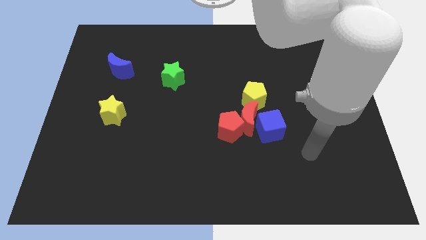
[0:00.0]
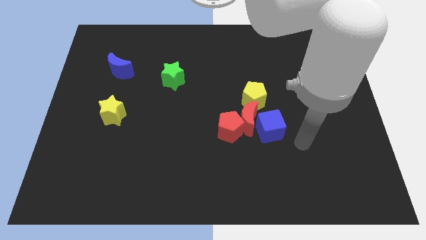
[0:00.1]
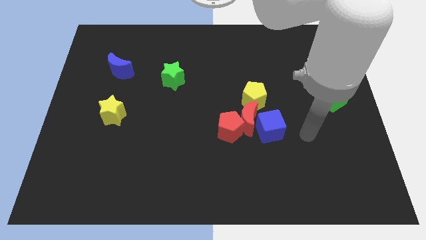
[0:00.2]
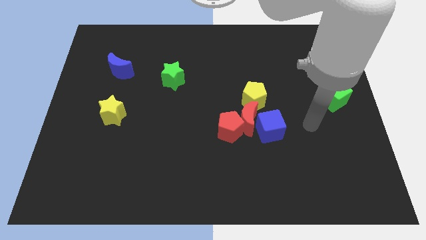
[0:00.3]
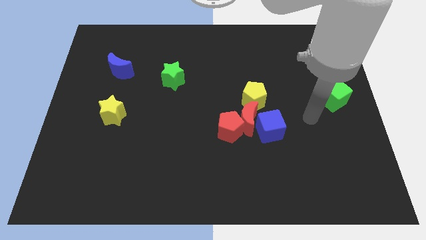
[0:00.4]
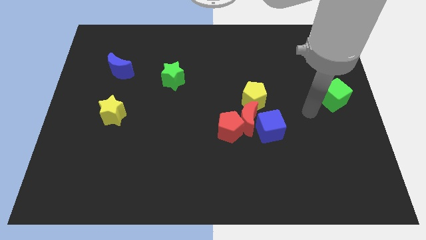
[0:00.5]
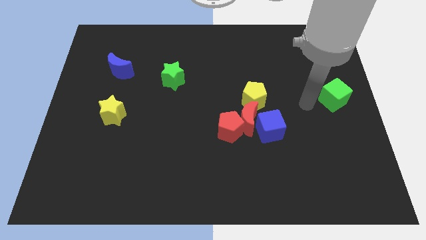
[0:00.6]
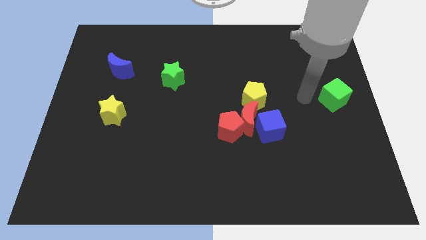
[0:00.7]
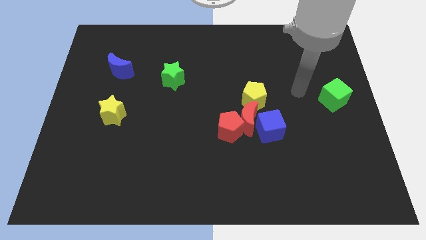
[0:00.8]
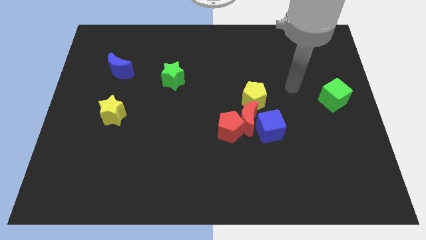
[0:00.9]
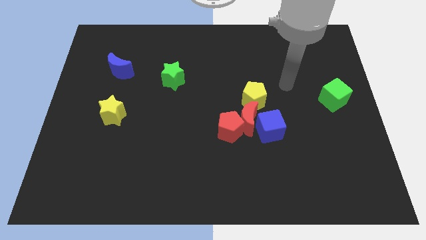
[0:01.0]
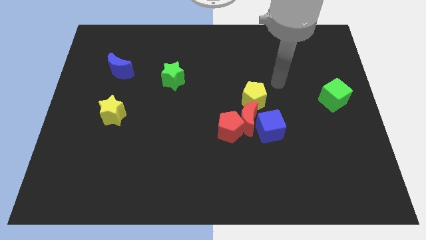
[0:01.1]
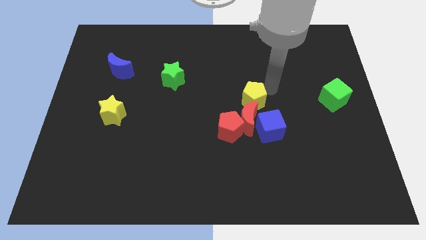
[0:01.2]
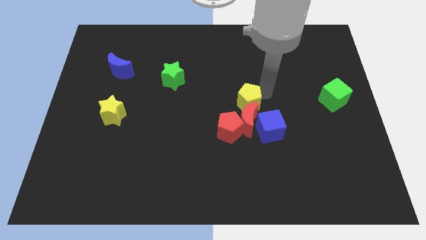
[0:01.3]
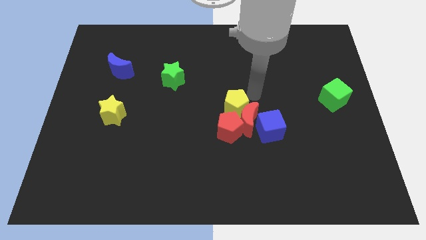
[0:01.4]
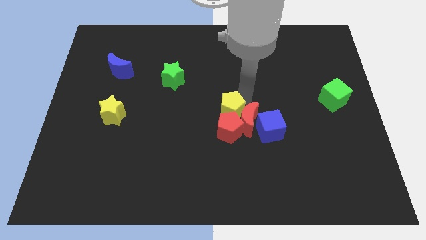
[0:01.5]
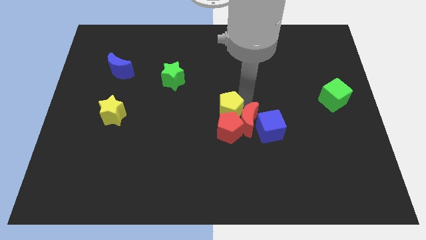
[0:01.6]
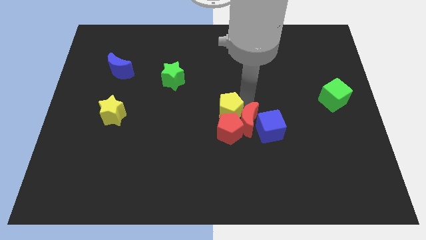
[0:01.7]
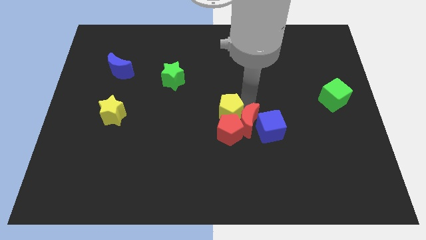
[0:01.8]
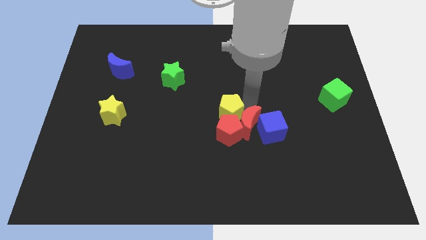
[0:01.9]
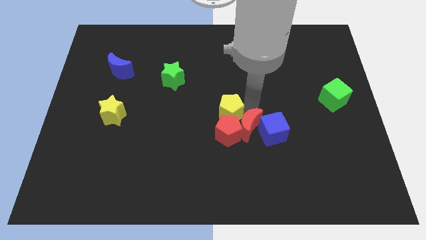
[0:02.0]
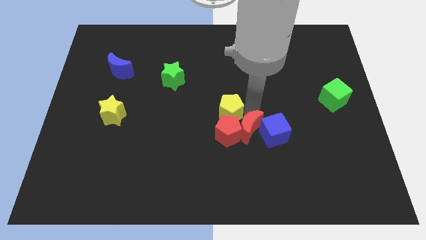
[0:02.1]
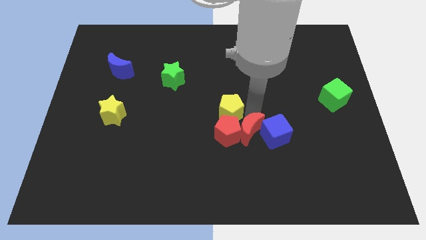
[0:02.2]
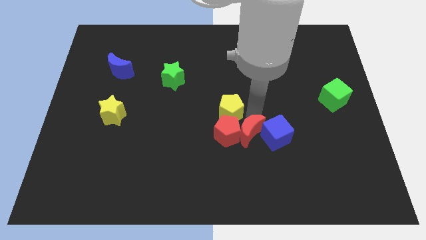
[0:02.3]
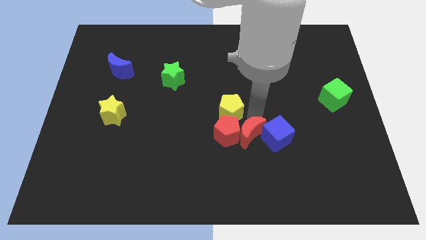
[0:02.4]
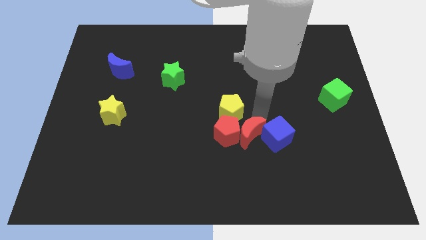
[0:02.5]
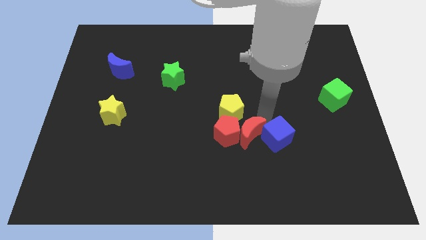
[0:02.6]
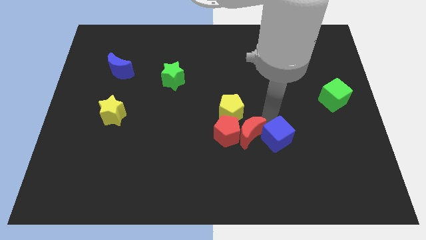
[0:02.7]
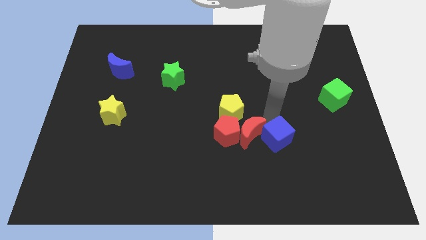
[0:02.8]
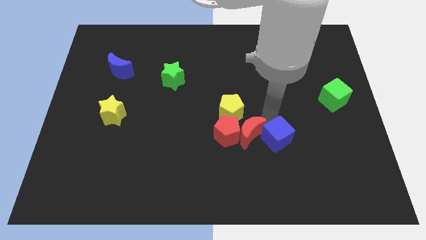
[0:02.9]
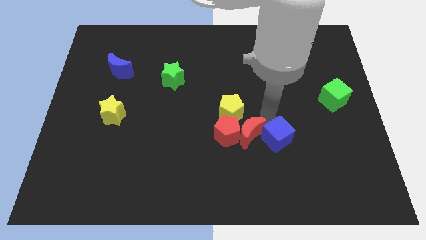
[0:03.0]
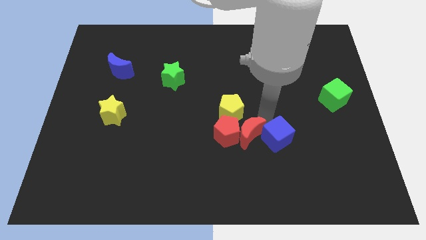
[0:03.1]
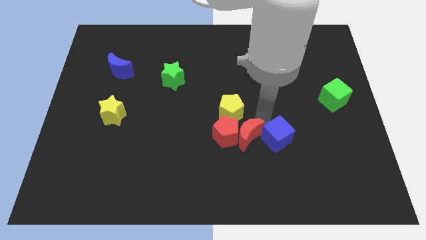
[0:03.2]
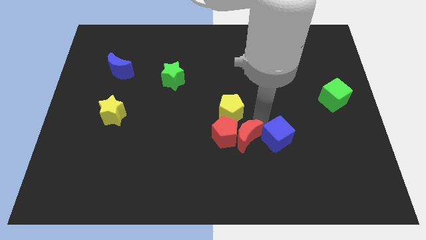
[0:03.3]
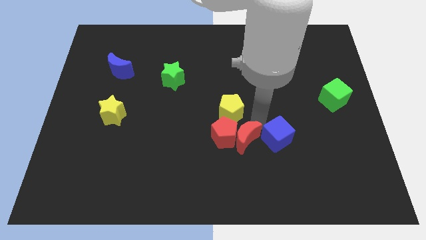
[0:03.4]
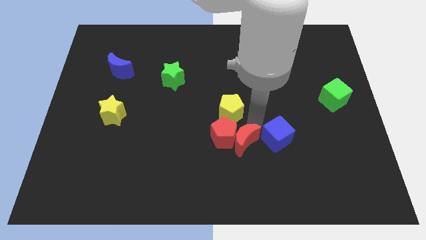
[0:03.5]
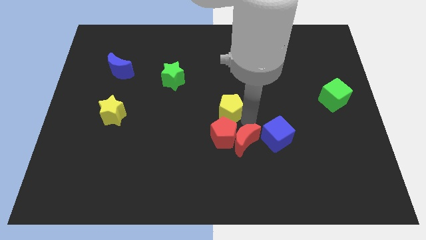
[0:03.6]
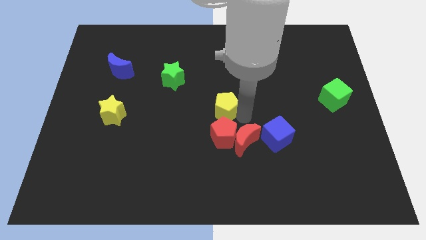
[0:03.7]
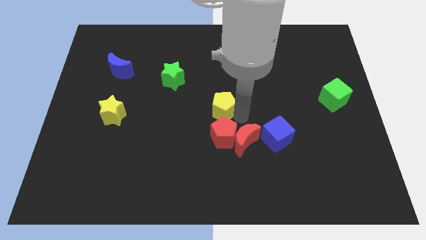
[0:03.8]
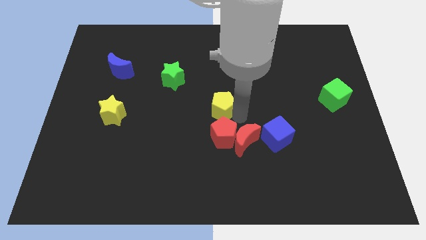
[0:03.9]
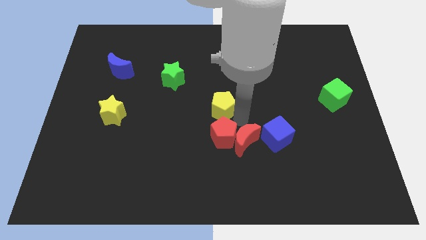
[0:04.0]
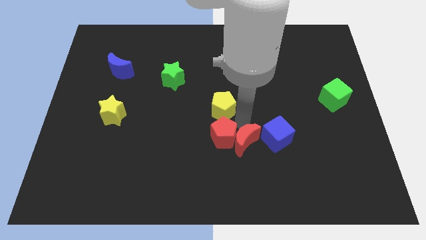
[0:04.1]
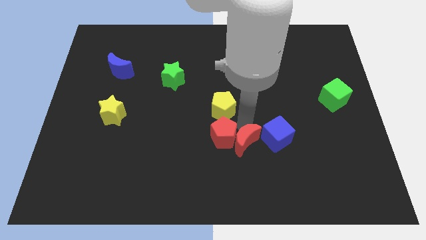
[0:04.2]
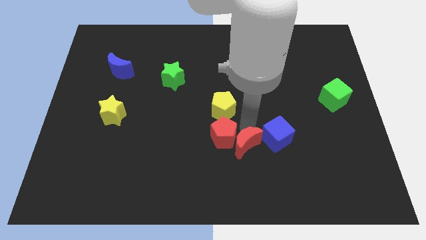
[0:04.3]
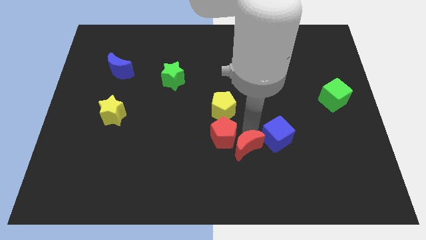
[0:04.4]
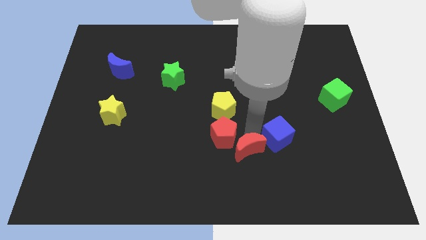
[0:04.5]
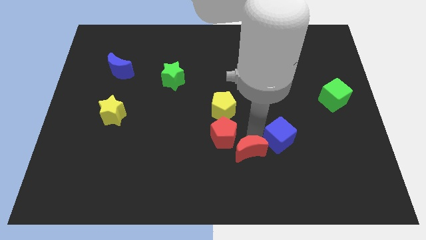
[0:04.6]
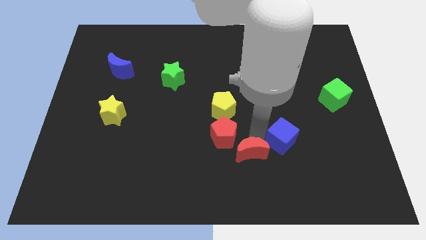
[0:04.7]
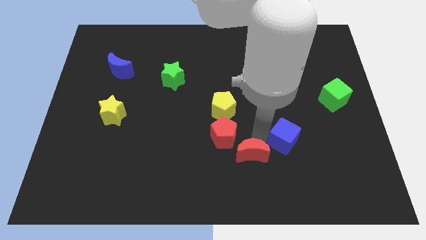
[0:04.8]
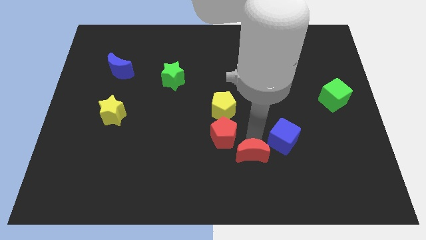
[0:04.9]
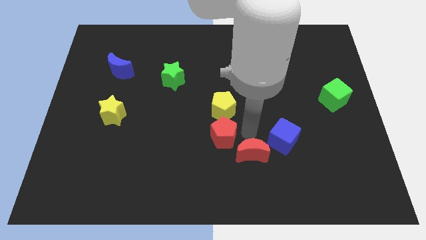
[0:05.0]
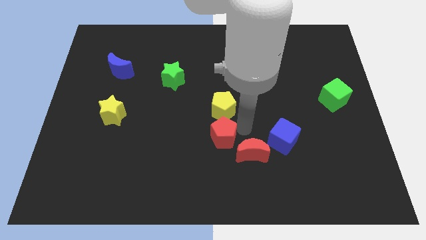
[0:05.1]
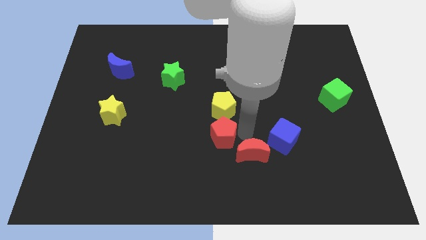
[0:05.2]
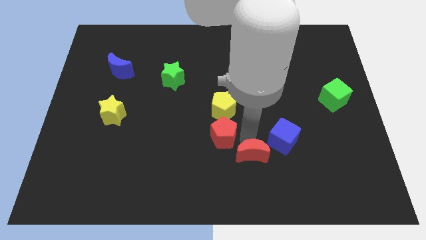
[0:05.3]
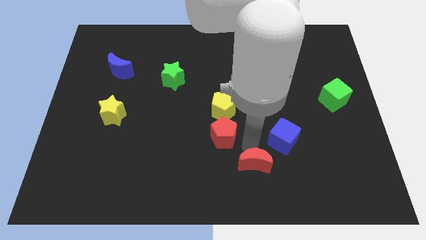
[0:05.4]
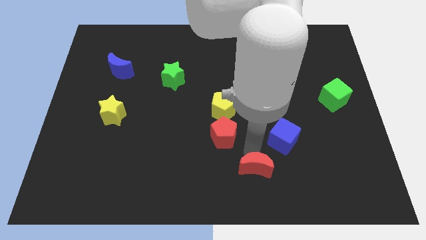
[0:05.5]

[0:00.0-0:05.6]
separate the red moon from the group of blocks

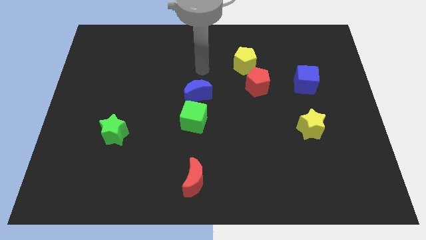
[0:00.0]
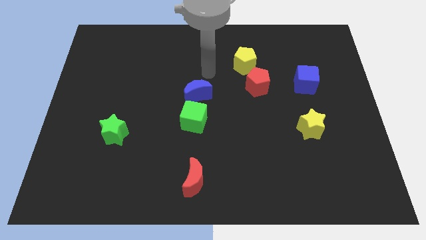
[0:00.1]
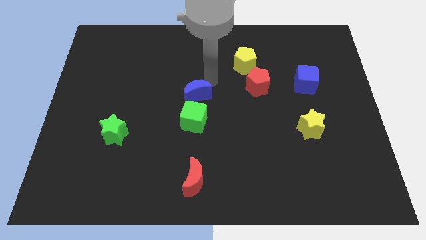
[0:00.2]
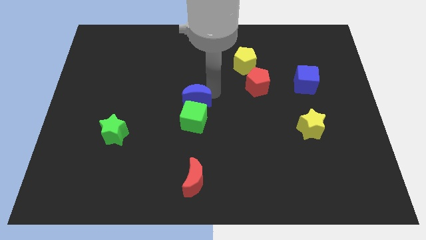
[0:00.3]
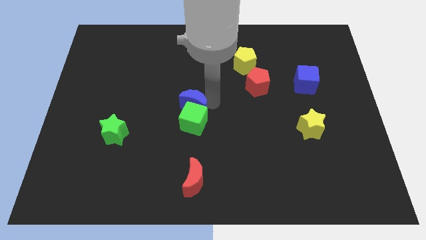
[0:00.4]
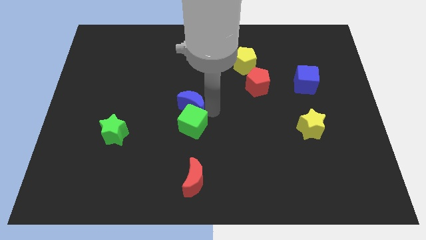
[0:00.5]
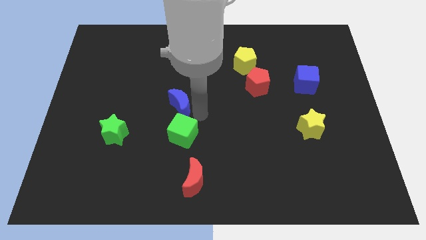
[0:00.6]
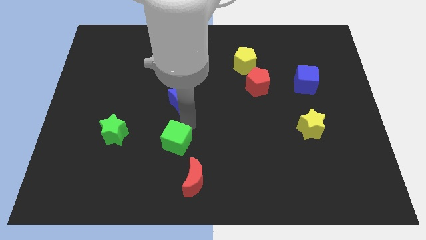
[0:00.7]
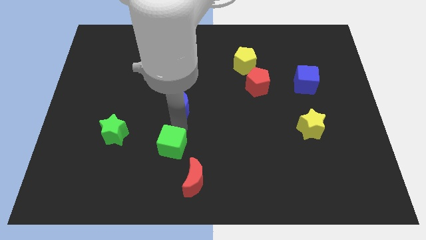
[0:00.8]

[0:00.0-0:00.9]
move the blue moon away from the green cube

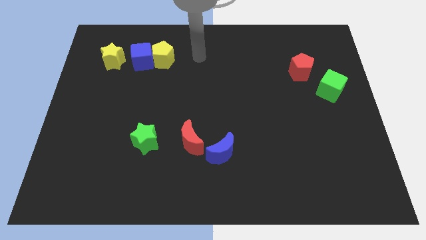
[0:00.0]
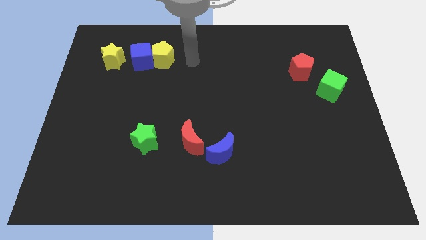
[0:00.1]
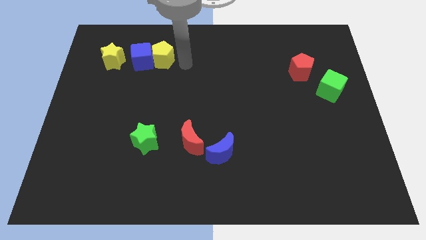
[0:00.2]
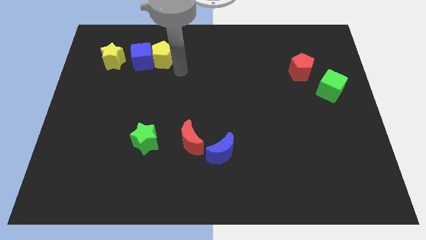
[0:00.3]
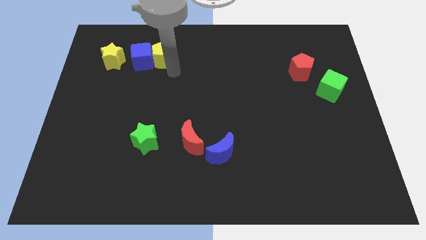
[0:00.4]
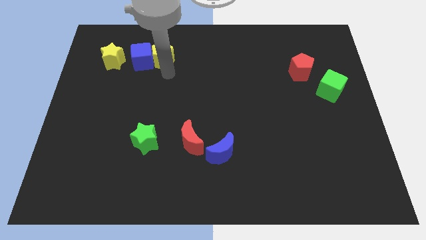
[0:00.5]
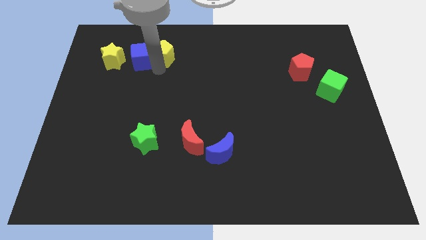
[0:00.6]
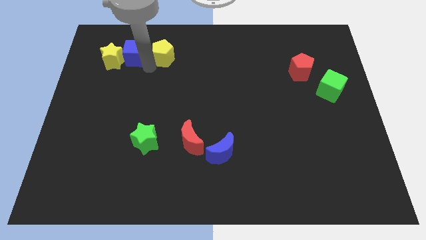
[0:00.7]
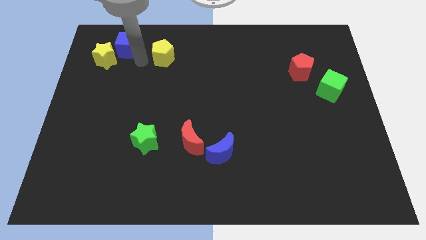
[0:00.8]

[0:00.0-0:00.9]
separate the yellow pentagon from the blue cube

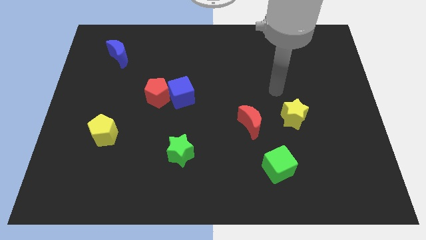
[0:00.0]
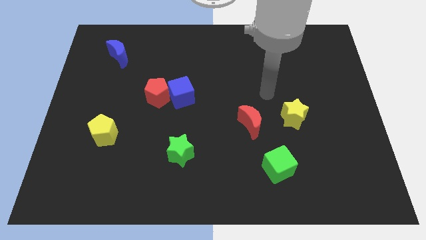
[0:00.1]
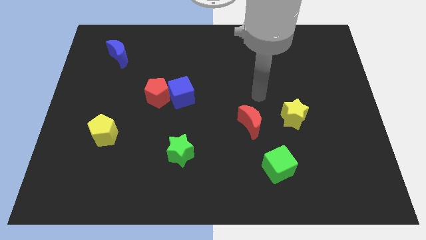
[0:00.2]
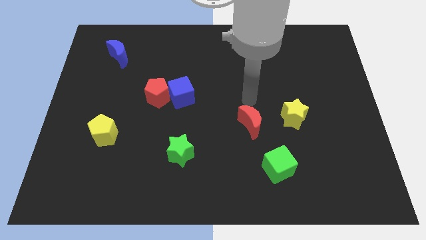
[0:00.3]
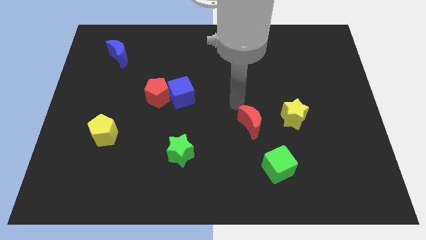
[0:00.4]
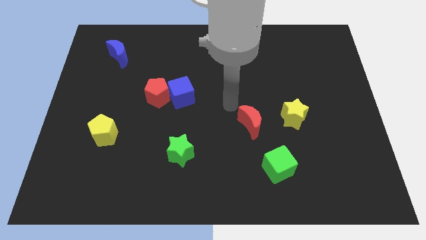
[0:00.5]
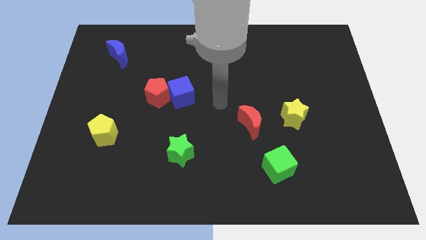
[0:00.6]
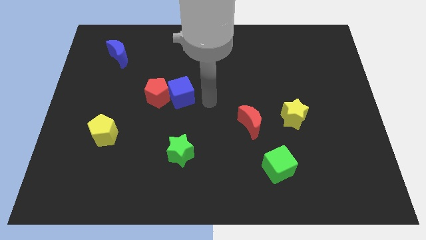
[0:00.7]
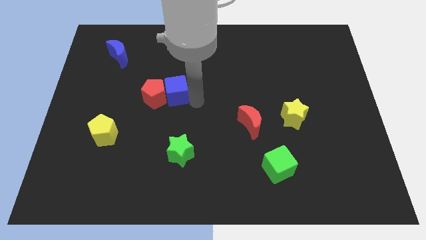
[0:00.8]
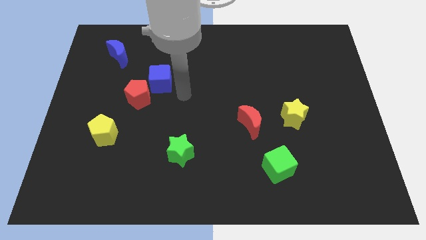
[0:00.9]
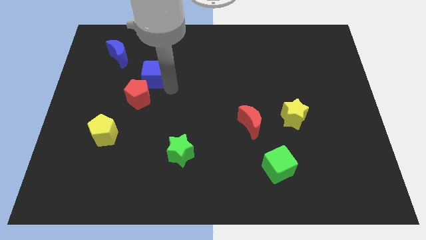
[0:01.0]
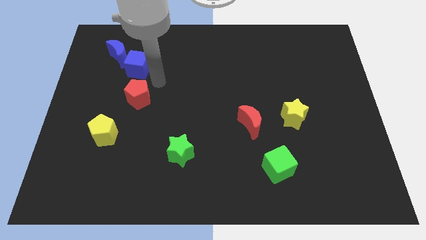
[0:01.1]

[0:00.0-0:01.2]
move the red pentagon away from the blue cube

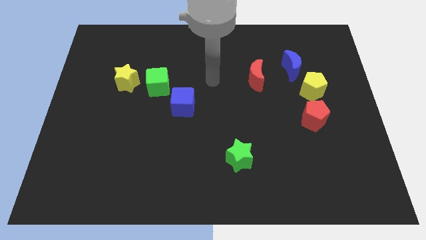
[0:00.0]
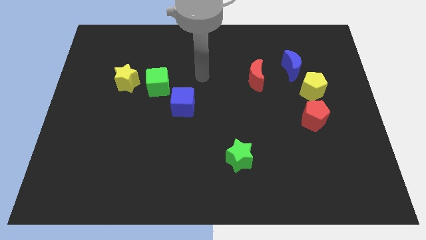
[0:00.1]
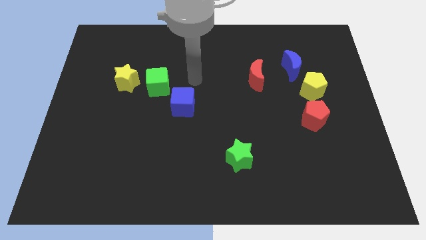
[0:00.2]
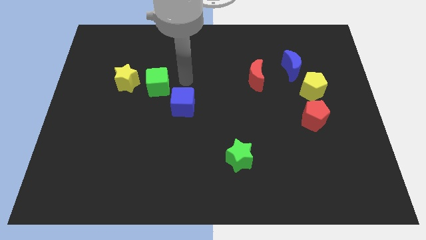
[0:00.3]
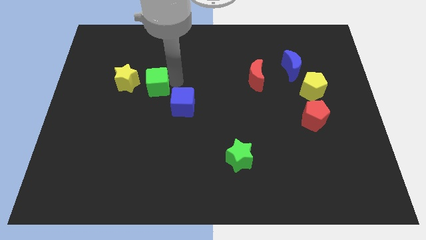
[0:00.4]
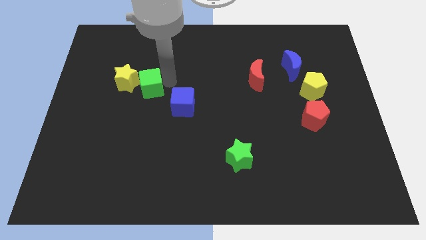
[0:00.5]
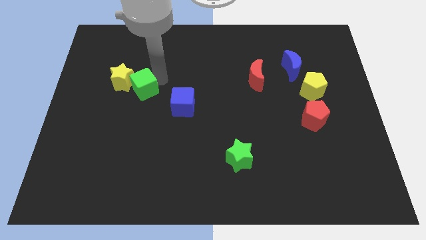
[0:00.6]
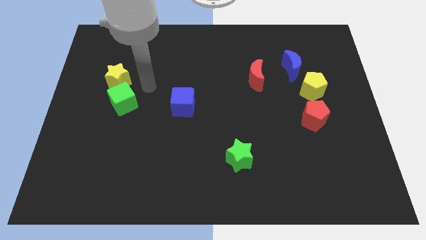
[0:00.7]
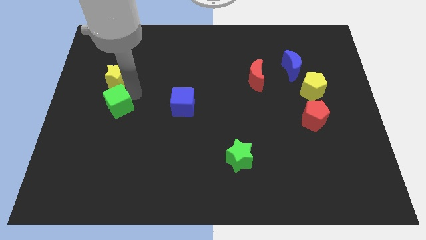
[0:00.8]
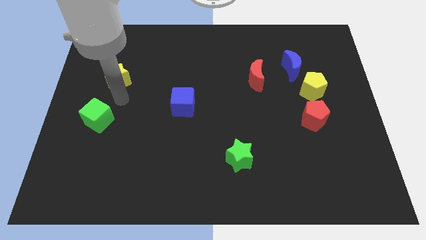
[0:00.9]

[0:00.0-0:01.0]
pull the yellow star apart from the green cube
